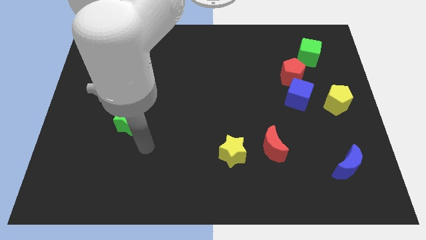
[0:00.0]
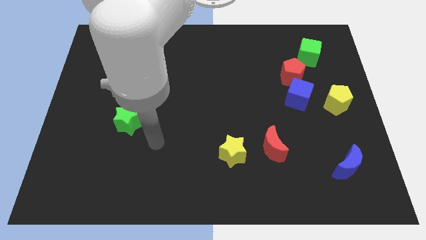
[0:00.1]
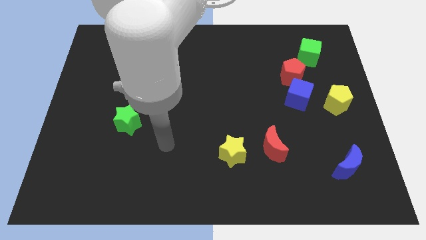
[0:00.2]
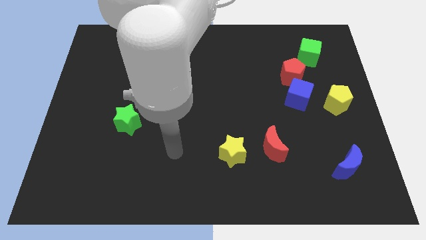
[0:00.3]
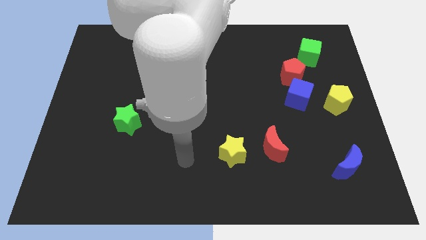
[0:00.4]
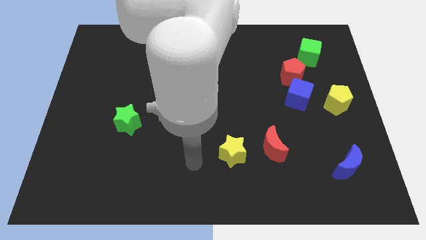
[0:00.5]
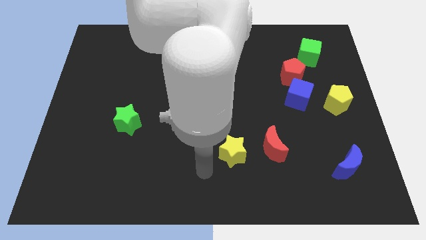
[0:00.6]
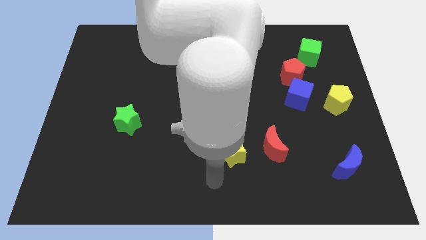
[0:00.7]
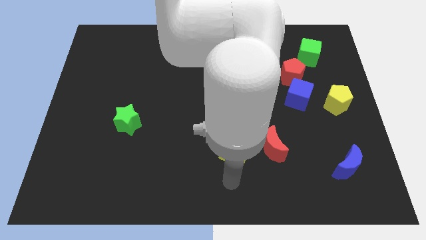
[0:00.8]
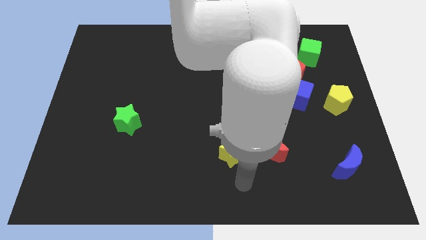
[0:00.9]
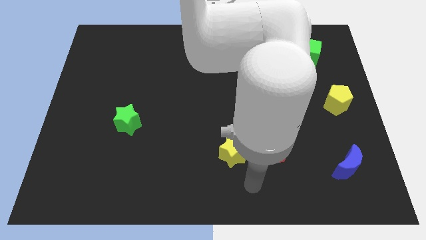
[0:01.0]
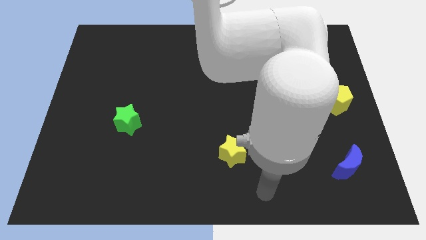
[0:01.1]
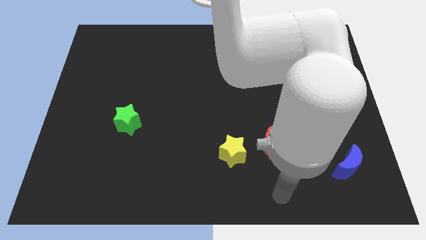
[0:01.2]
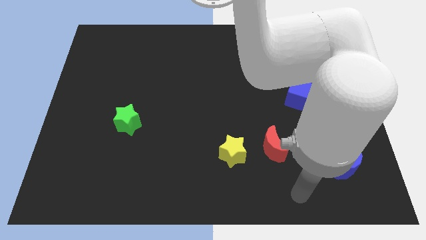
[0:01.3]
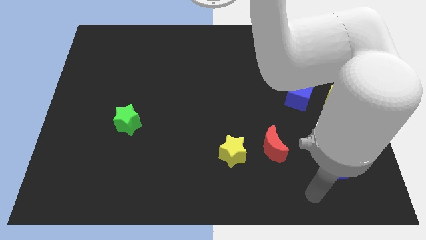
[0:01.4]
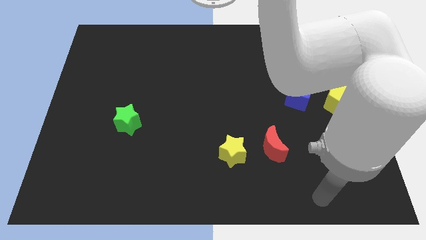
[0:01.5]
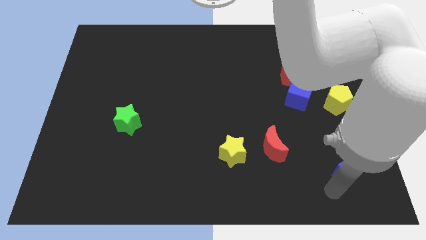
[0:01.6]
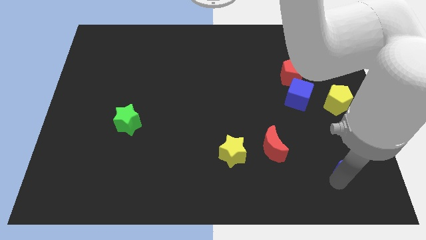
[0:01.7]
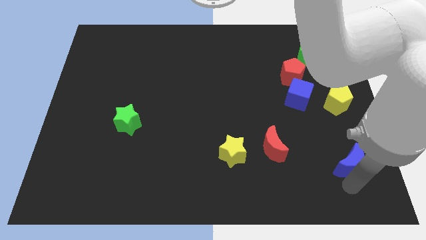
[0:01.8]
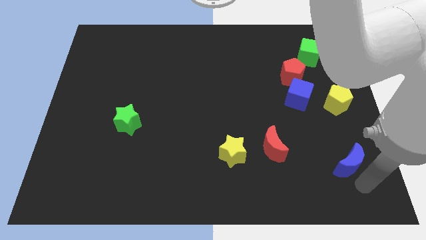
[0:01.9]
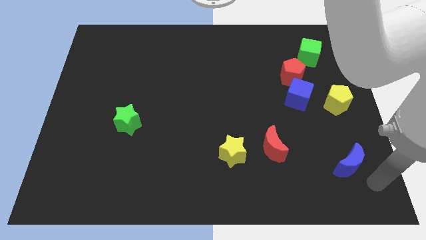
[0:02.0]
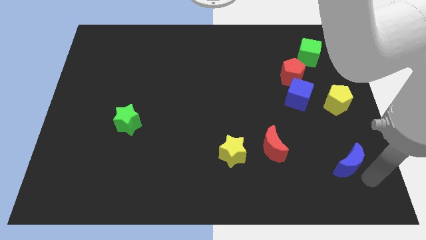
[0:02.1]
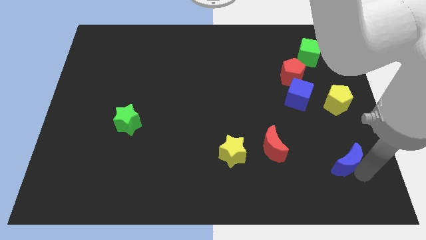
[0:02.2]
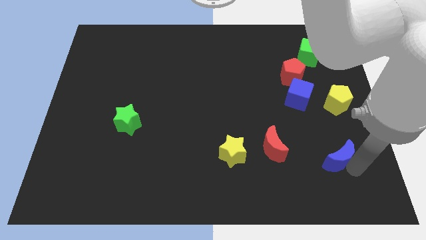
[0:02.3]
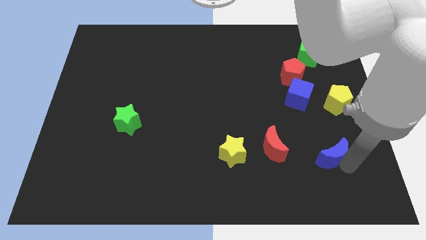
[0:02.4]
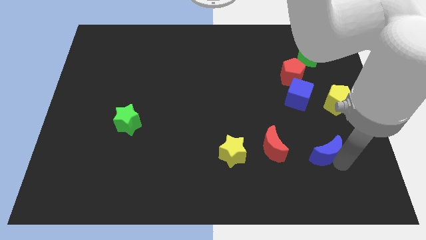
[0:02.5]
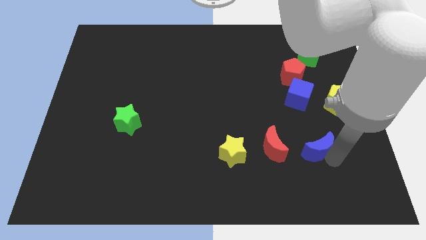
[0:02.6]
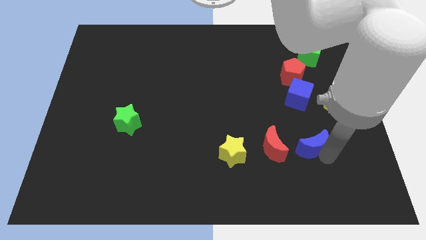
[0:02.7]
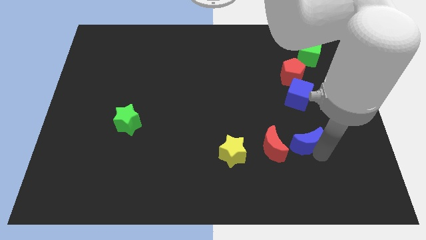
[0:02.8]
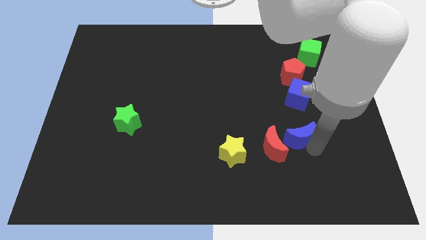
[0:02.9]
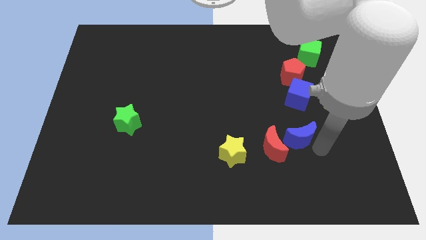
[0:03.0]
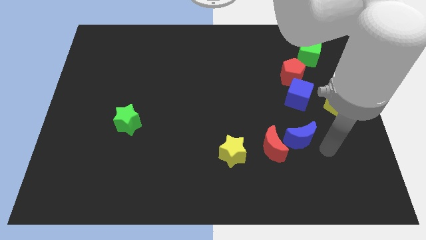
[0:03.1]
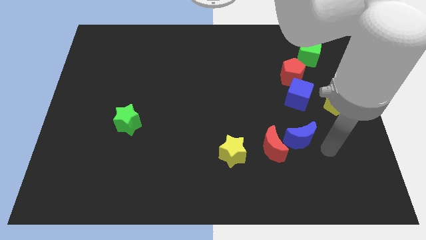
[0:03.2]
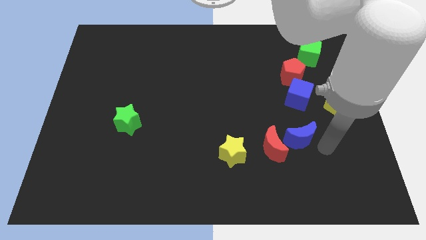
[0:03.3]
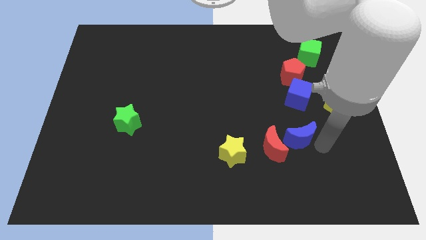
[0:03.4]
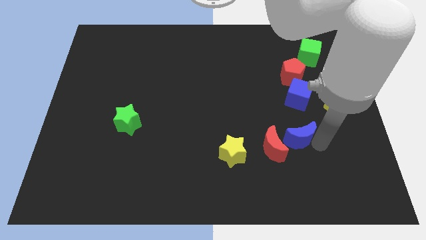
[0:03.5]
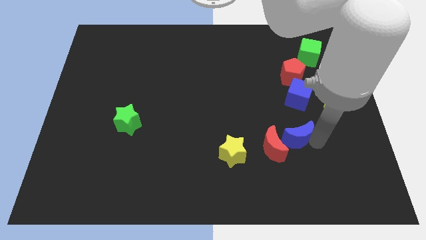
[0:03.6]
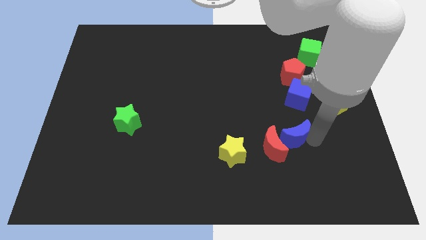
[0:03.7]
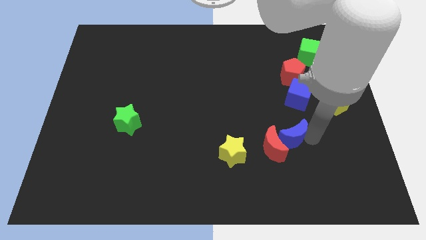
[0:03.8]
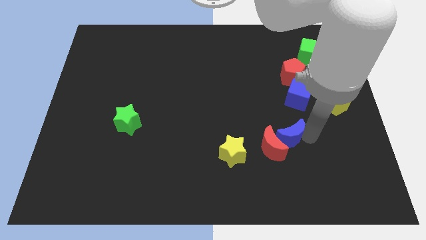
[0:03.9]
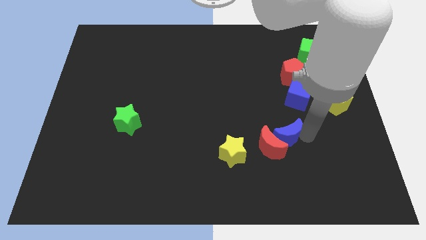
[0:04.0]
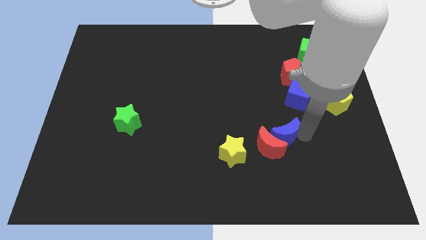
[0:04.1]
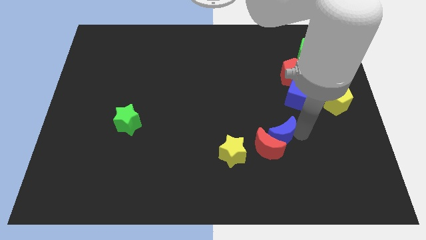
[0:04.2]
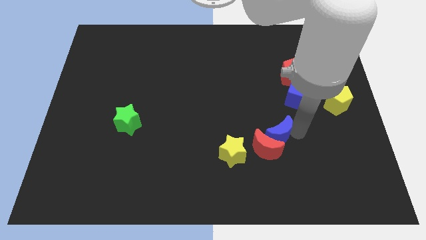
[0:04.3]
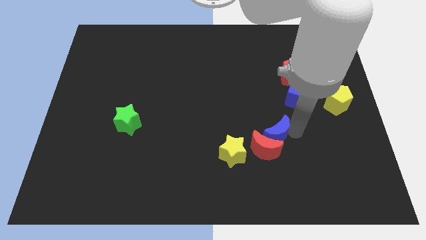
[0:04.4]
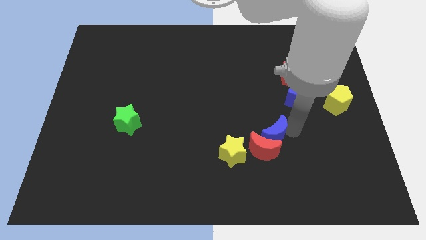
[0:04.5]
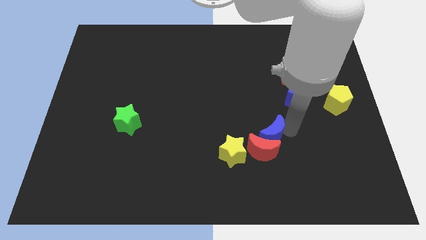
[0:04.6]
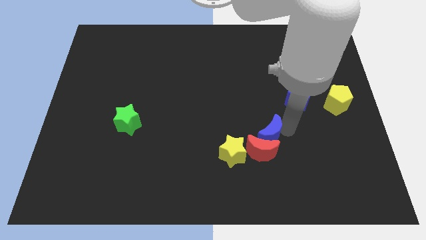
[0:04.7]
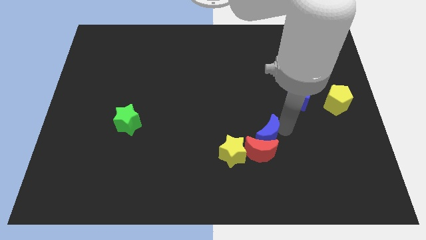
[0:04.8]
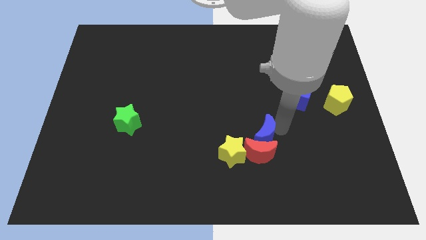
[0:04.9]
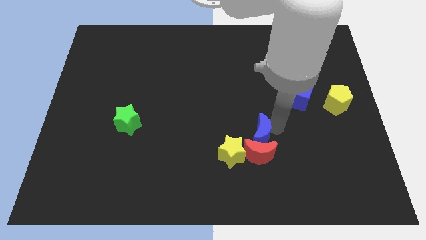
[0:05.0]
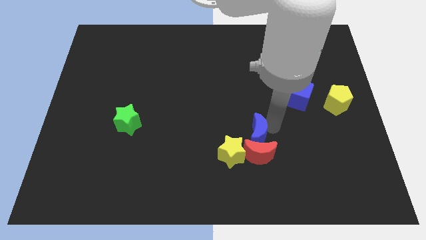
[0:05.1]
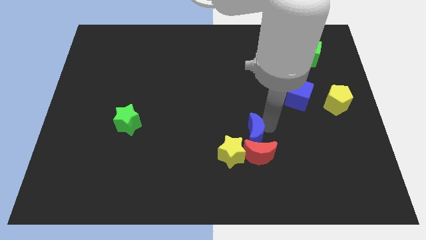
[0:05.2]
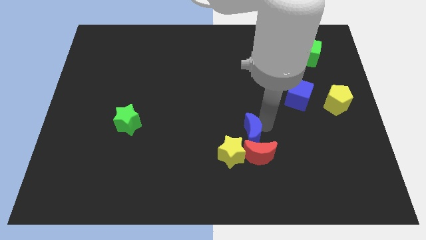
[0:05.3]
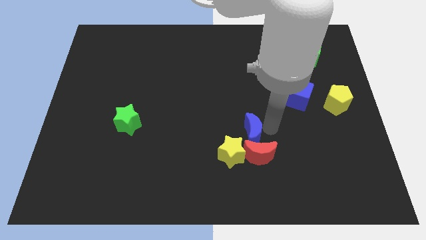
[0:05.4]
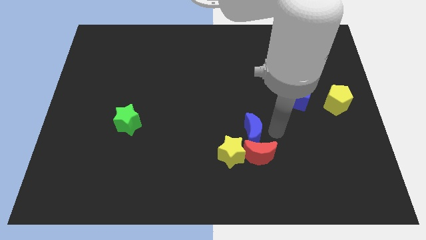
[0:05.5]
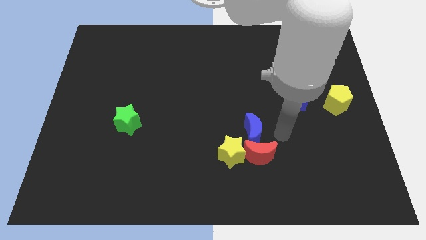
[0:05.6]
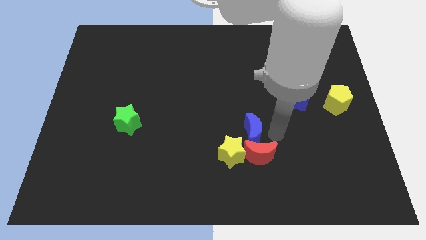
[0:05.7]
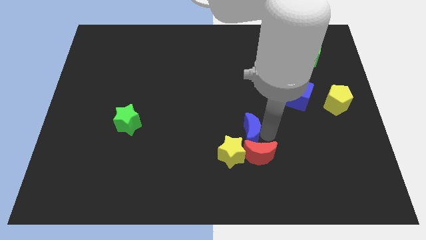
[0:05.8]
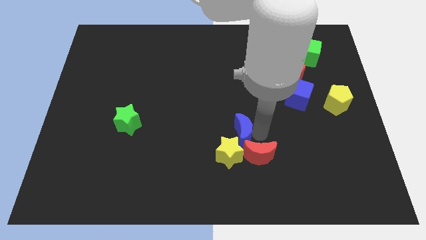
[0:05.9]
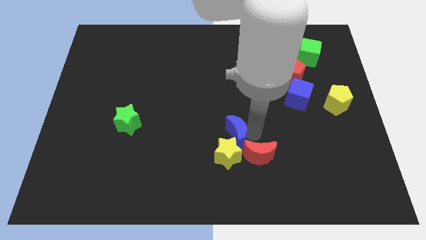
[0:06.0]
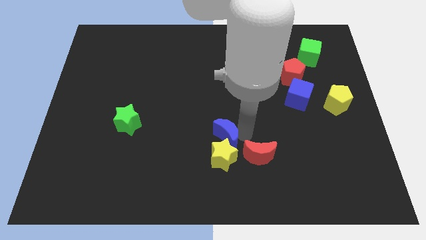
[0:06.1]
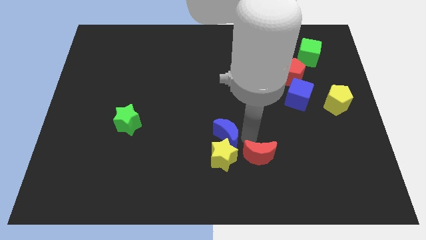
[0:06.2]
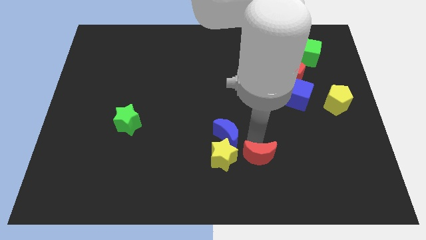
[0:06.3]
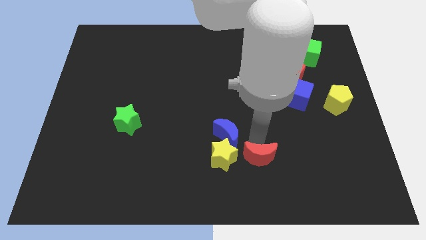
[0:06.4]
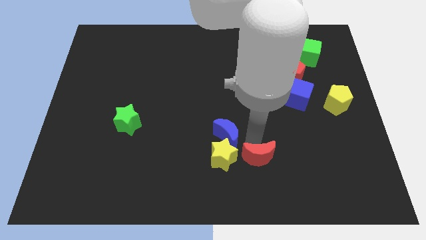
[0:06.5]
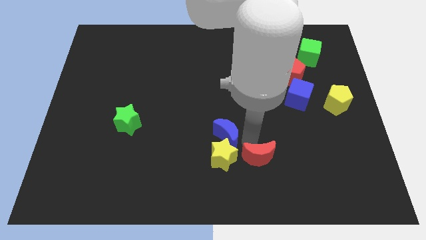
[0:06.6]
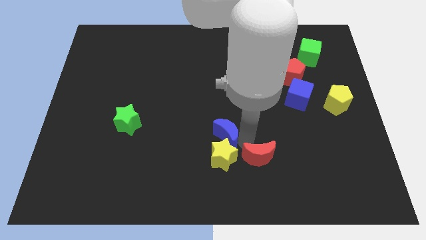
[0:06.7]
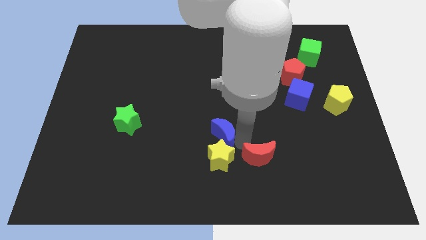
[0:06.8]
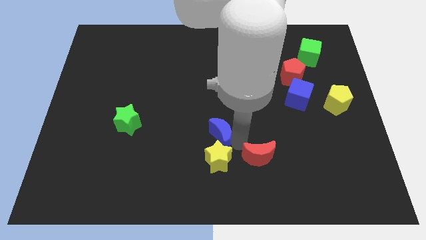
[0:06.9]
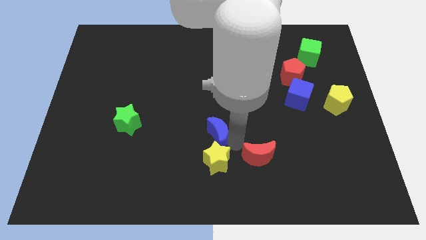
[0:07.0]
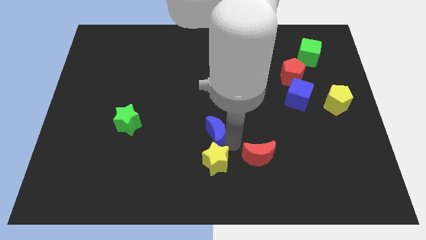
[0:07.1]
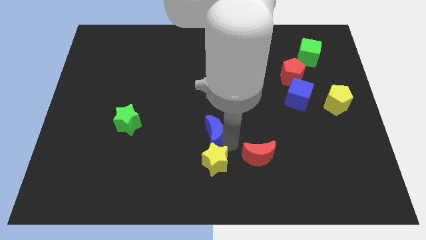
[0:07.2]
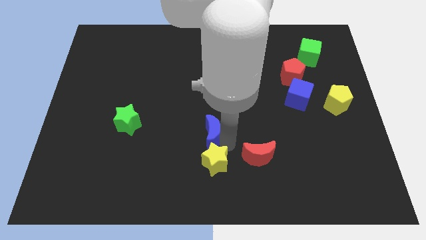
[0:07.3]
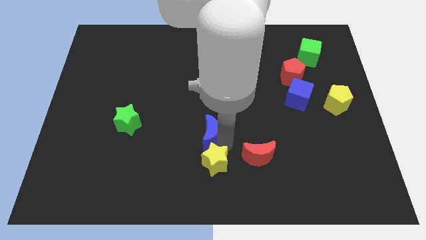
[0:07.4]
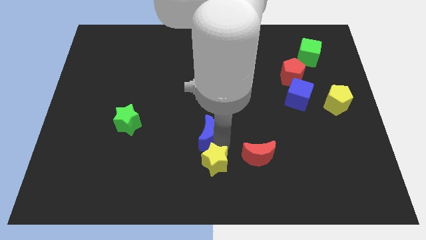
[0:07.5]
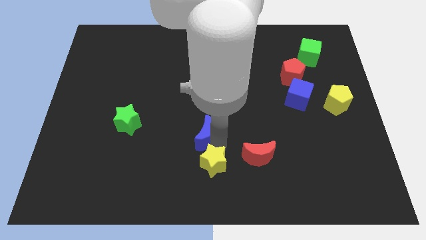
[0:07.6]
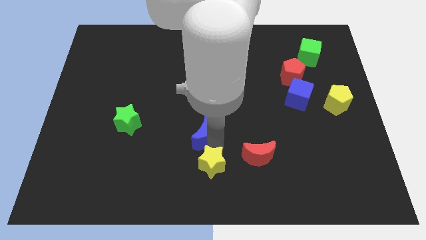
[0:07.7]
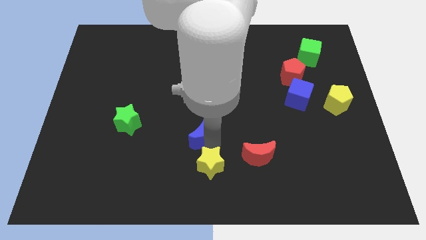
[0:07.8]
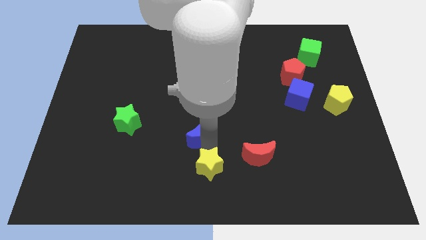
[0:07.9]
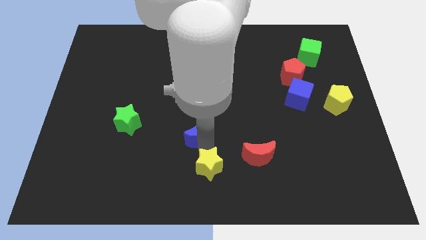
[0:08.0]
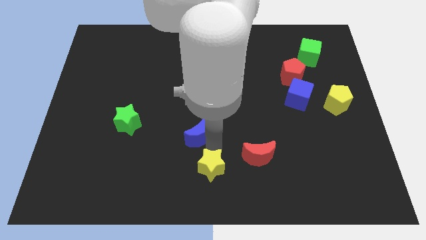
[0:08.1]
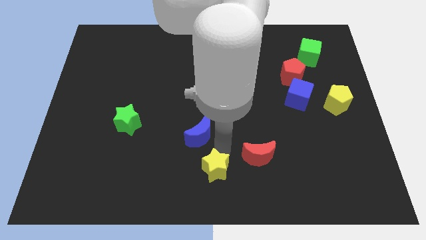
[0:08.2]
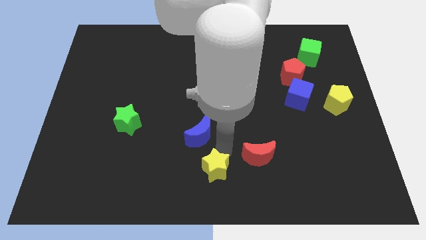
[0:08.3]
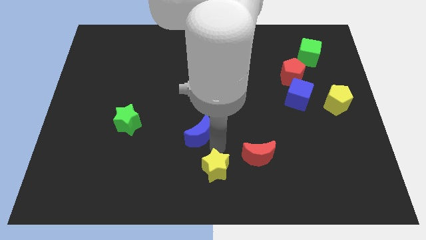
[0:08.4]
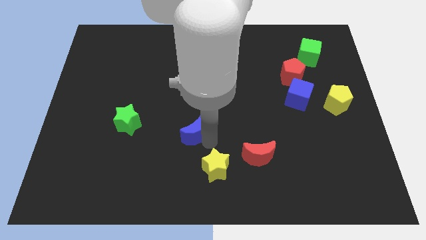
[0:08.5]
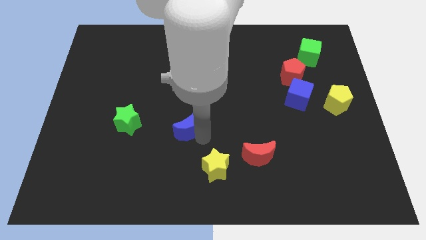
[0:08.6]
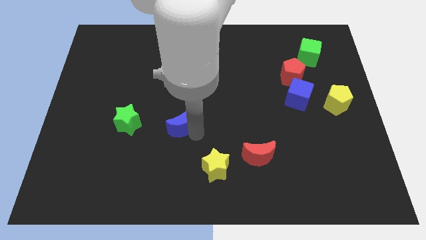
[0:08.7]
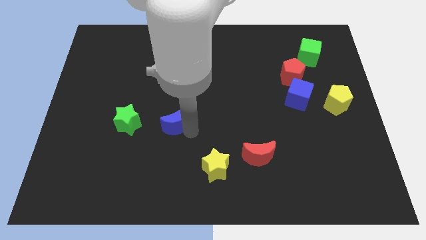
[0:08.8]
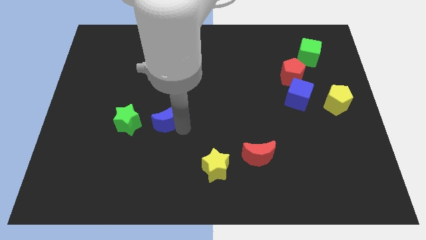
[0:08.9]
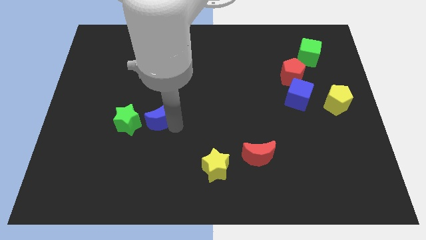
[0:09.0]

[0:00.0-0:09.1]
push the blue moon to the top right side of the green star
